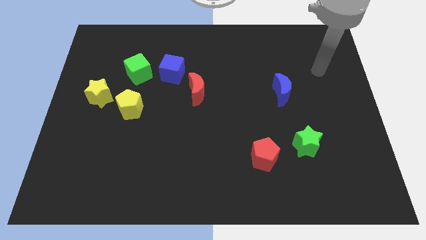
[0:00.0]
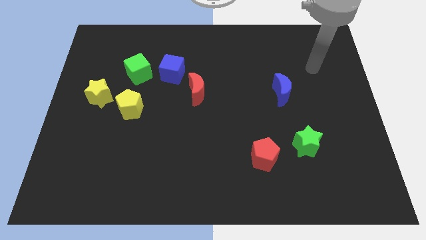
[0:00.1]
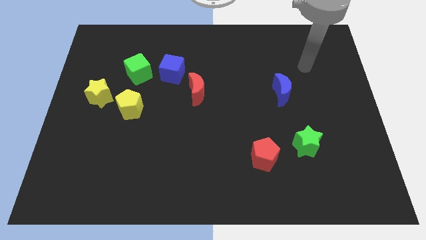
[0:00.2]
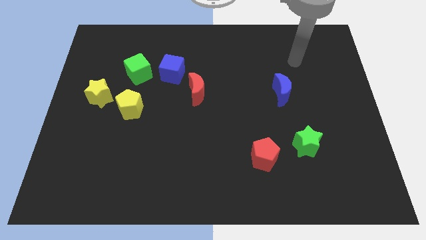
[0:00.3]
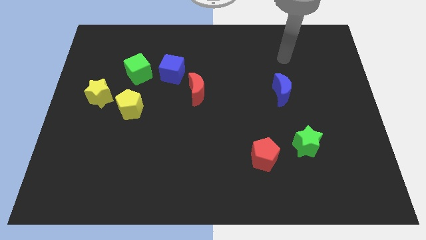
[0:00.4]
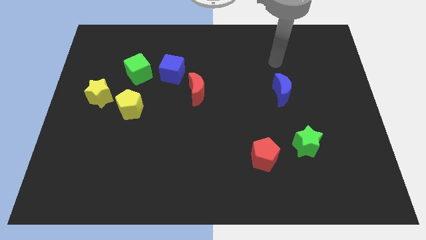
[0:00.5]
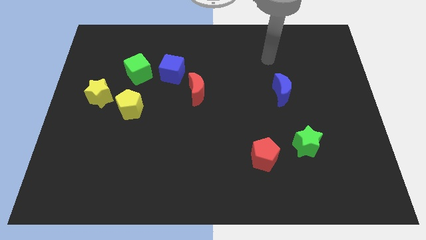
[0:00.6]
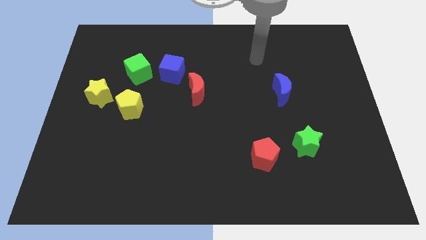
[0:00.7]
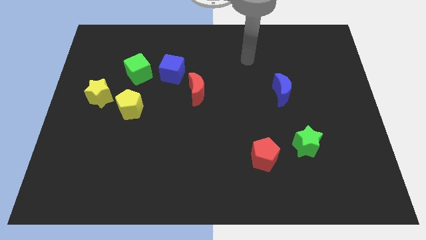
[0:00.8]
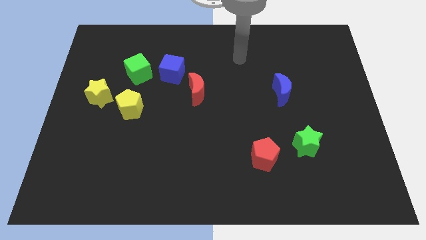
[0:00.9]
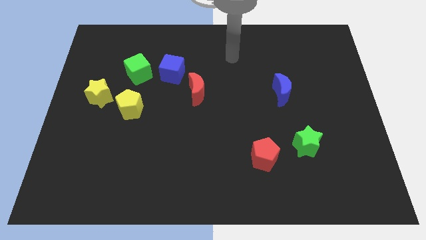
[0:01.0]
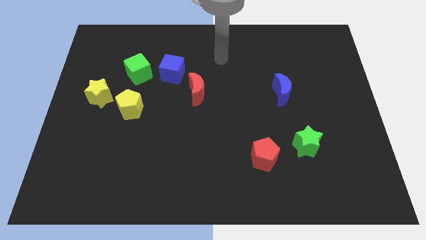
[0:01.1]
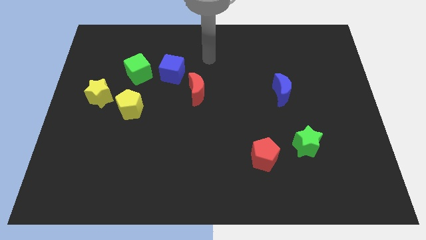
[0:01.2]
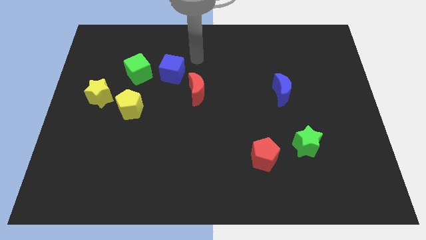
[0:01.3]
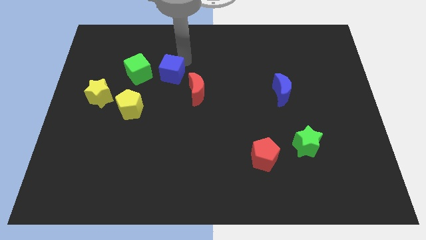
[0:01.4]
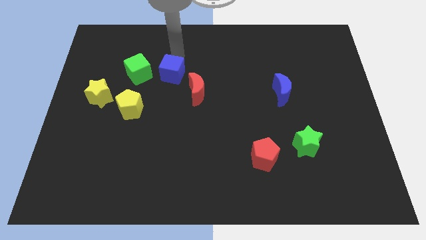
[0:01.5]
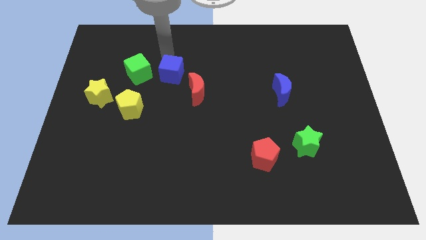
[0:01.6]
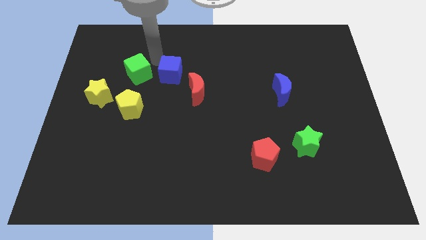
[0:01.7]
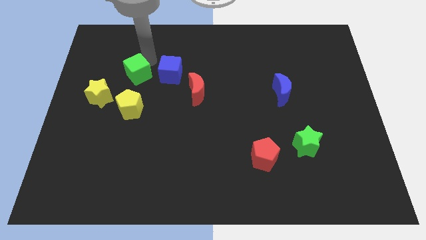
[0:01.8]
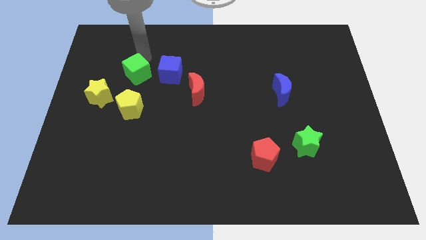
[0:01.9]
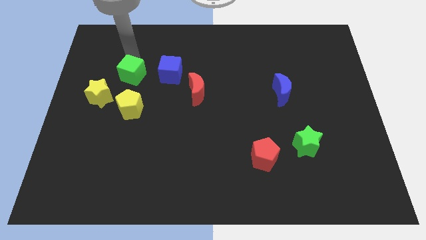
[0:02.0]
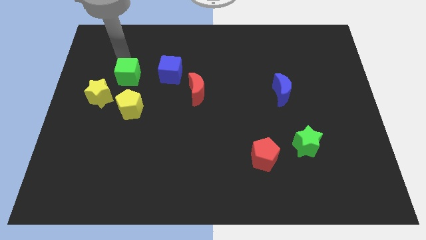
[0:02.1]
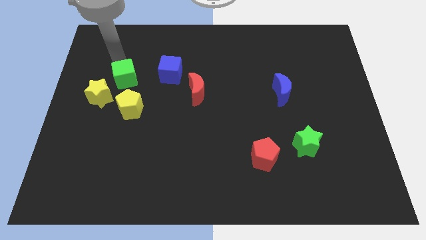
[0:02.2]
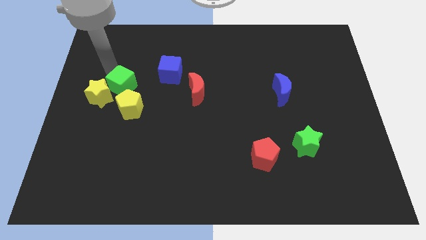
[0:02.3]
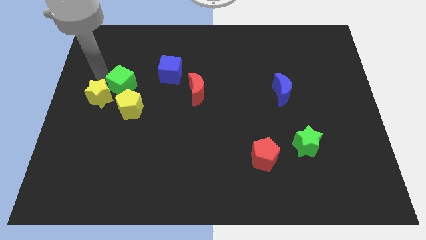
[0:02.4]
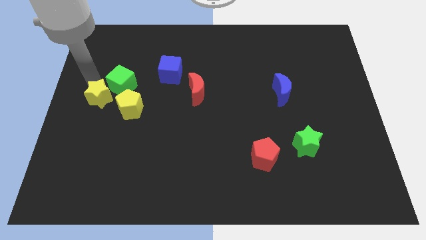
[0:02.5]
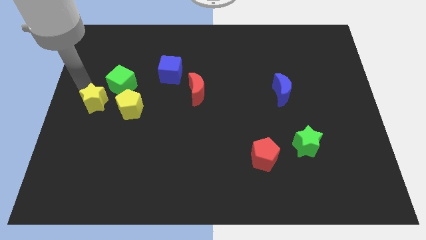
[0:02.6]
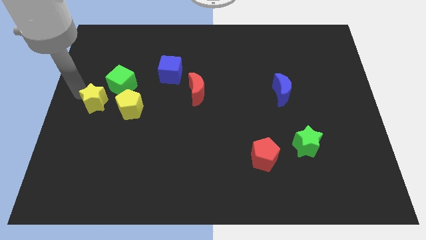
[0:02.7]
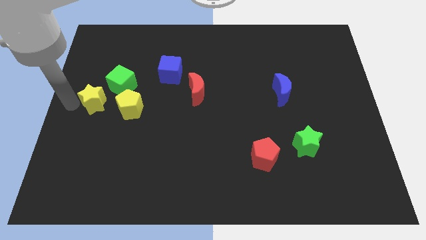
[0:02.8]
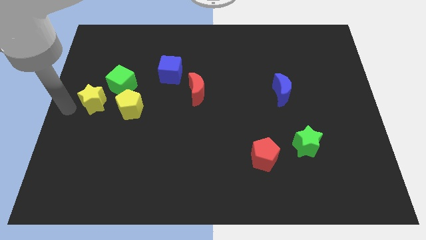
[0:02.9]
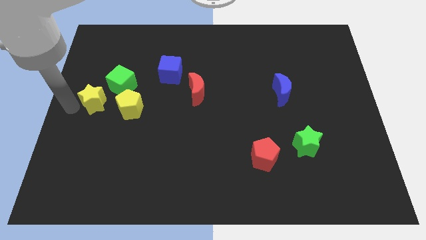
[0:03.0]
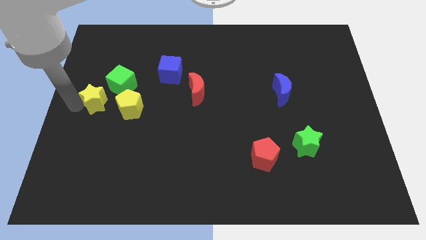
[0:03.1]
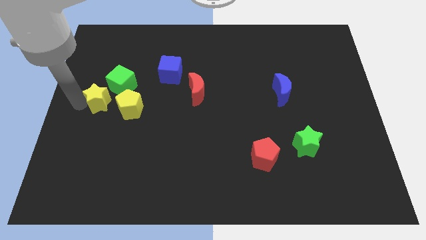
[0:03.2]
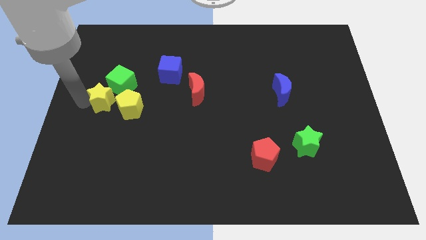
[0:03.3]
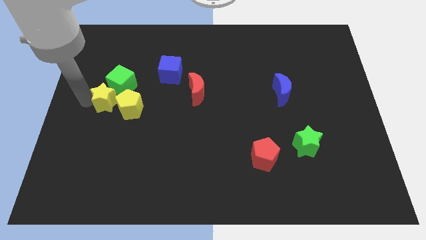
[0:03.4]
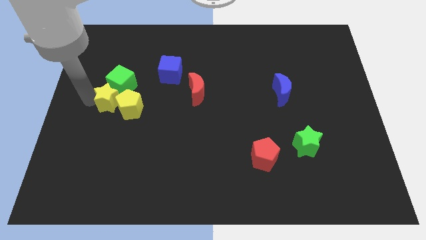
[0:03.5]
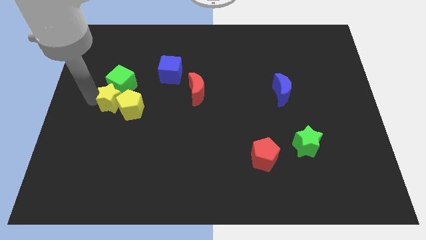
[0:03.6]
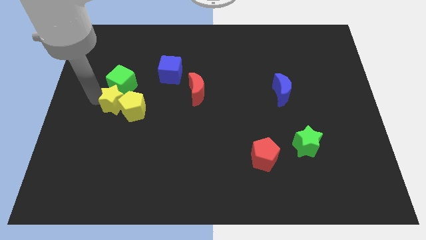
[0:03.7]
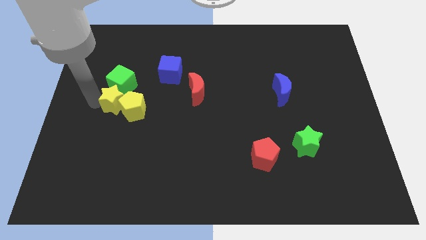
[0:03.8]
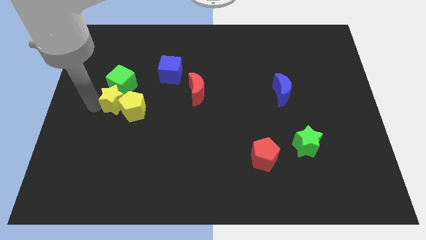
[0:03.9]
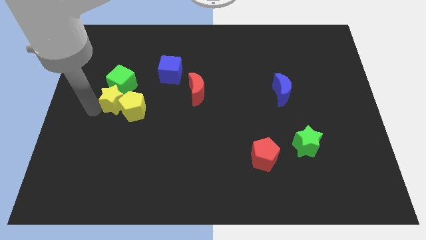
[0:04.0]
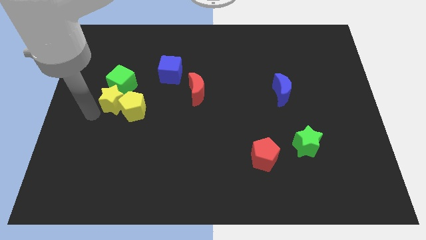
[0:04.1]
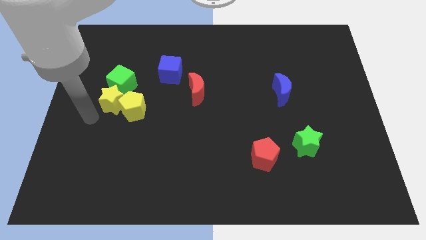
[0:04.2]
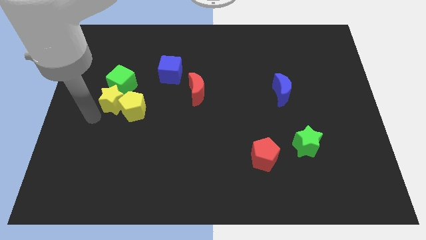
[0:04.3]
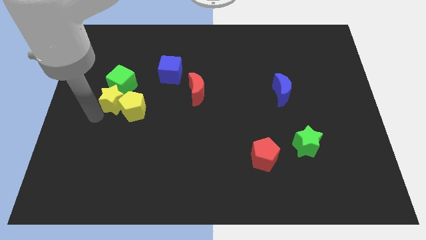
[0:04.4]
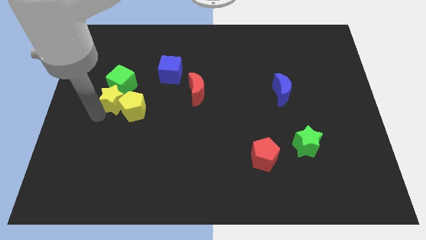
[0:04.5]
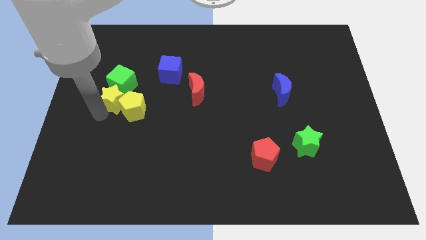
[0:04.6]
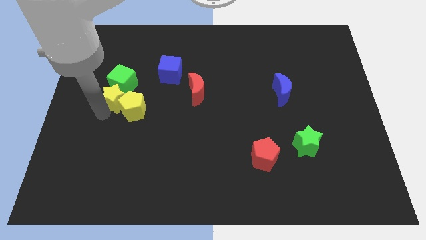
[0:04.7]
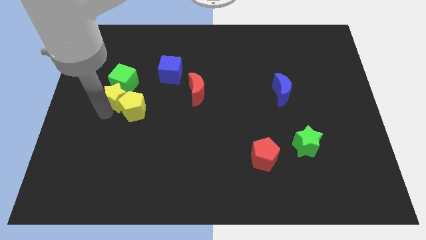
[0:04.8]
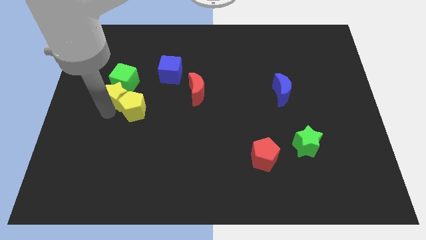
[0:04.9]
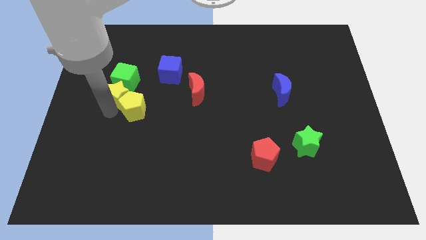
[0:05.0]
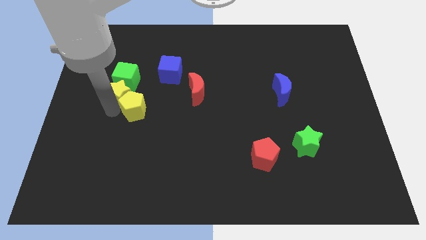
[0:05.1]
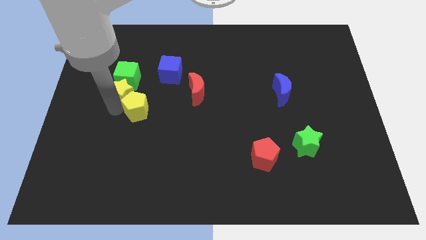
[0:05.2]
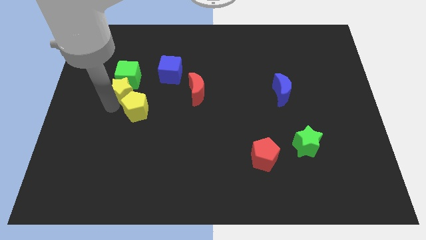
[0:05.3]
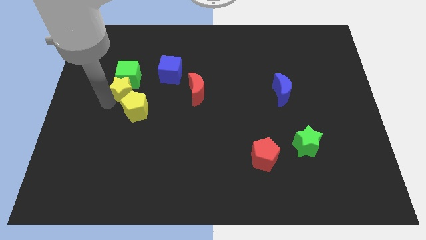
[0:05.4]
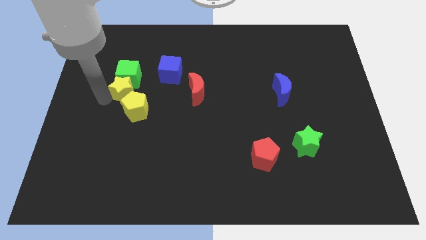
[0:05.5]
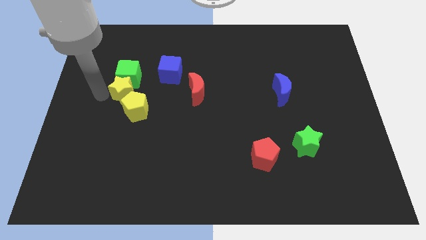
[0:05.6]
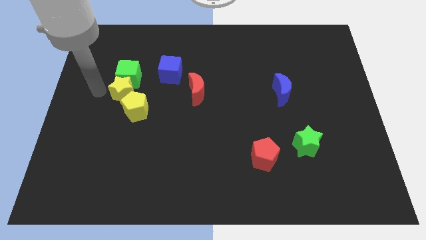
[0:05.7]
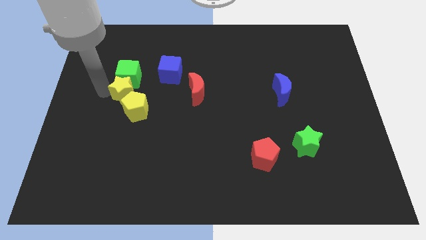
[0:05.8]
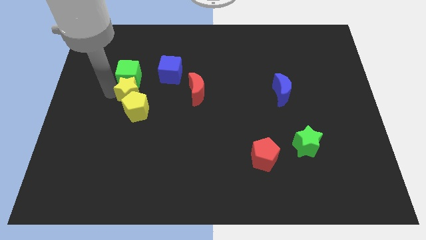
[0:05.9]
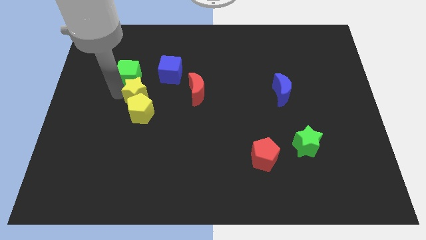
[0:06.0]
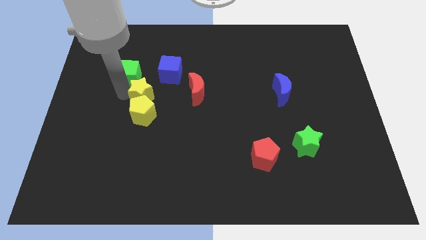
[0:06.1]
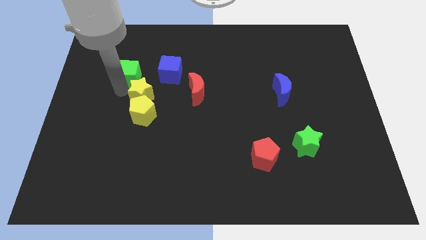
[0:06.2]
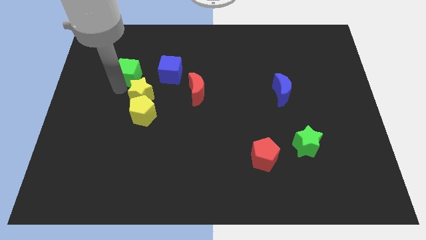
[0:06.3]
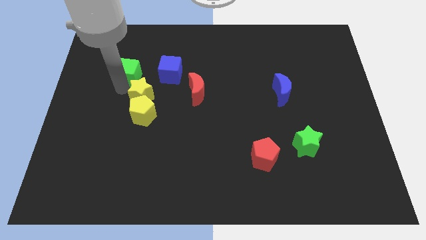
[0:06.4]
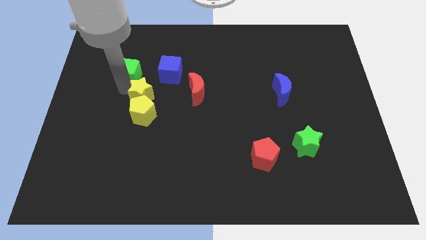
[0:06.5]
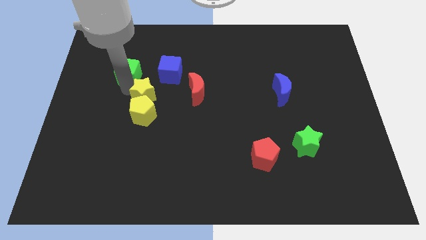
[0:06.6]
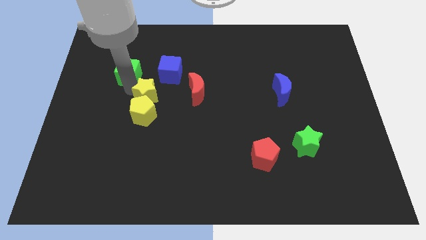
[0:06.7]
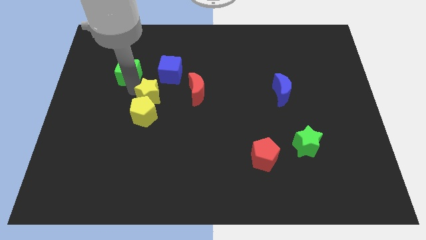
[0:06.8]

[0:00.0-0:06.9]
slide the yellow star below the blue cube

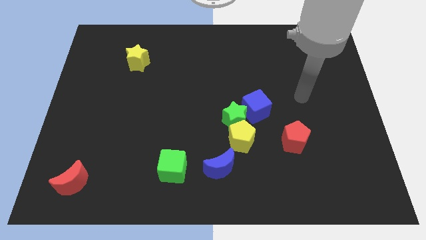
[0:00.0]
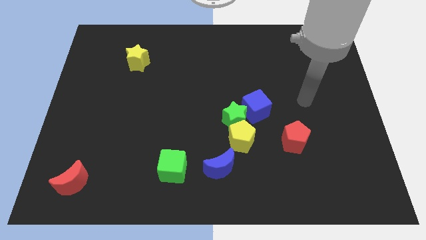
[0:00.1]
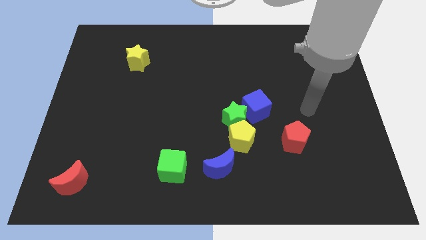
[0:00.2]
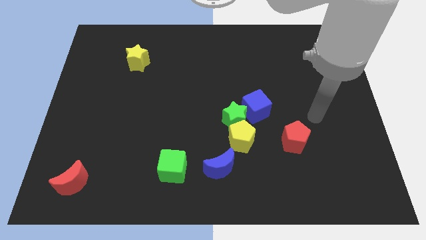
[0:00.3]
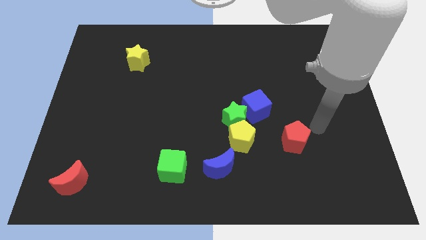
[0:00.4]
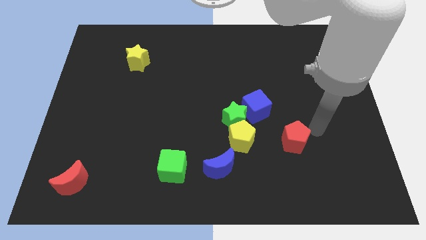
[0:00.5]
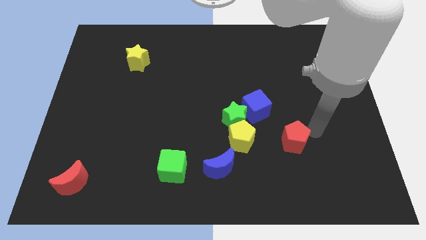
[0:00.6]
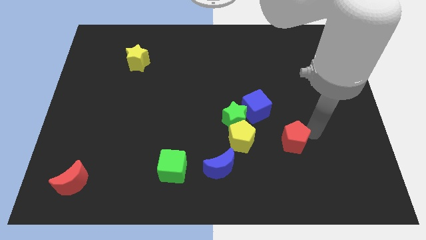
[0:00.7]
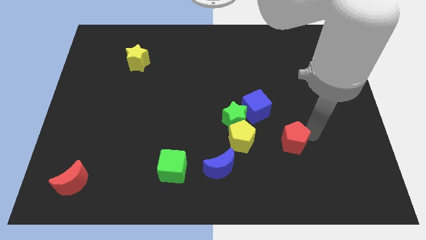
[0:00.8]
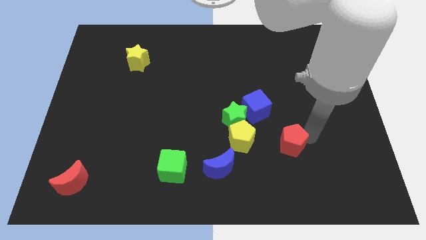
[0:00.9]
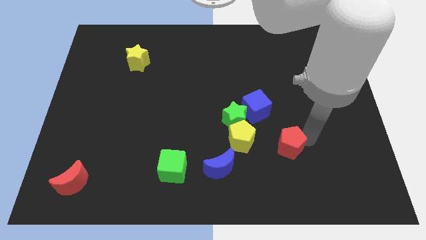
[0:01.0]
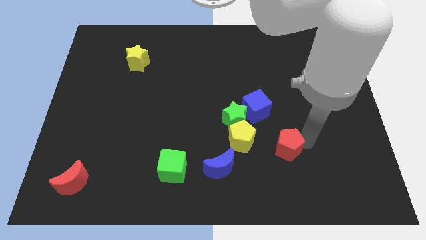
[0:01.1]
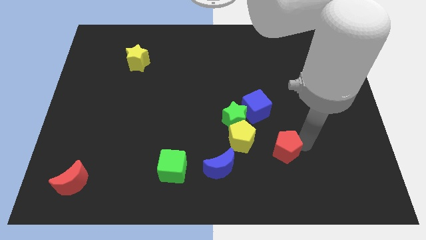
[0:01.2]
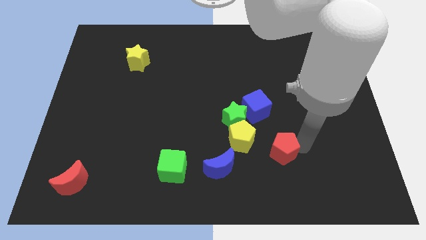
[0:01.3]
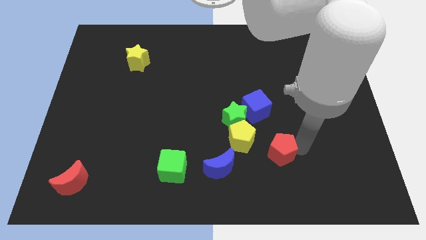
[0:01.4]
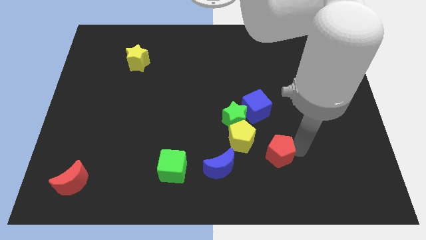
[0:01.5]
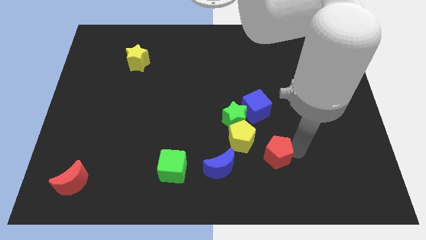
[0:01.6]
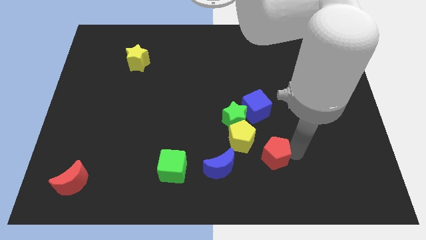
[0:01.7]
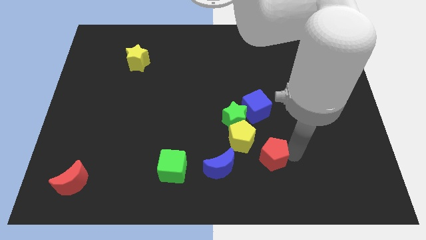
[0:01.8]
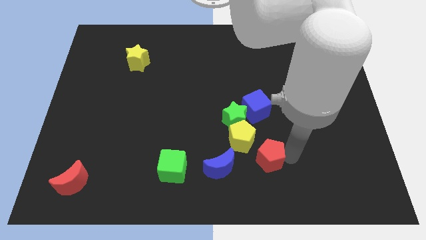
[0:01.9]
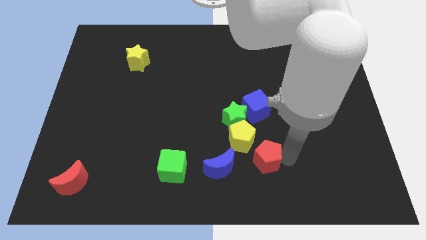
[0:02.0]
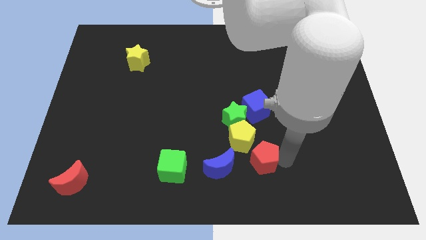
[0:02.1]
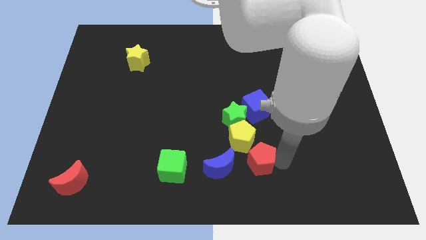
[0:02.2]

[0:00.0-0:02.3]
move the red pentagon below the green star
